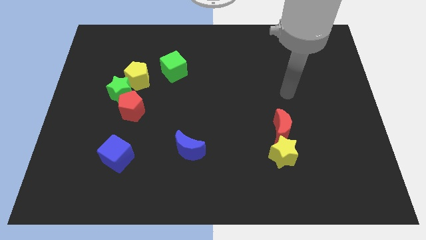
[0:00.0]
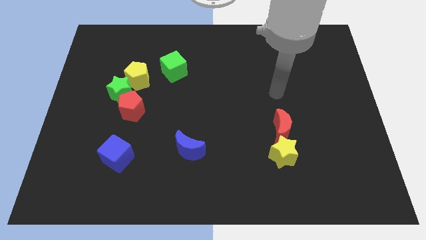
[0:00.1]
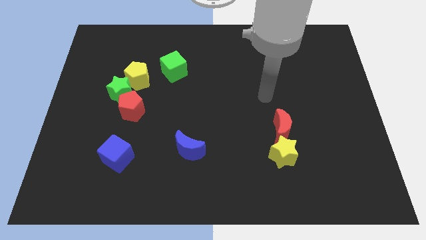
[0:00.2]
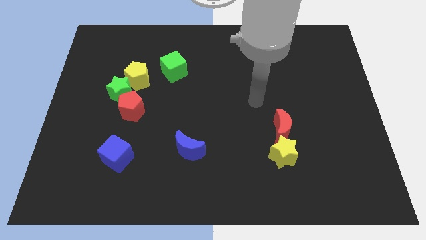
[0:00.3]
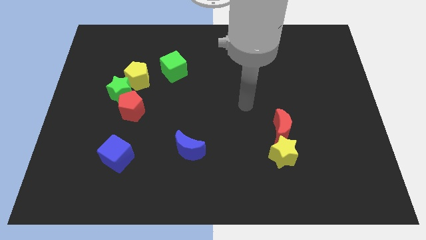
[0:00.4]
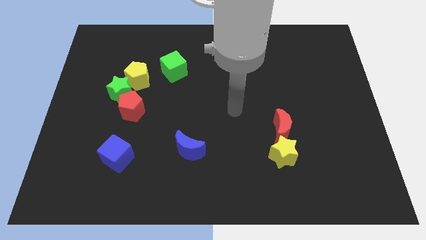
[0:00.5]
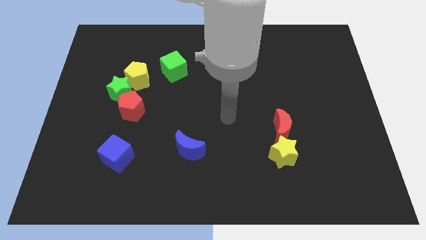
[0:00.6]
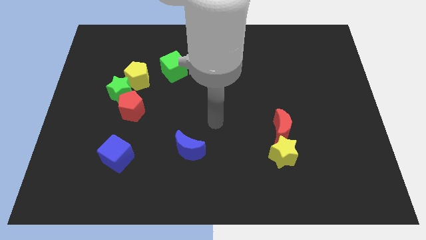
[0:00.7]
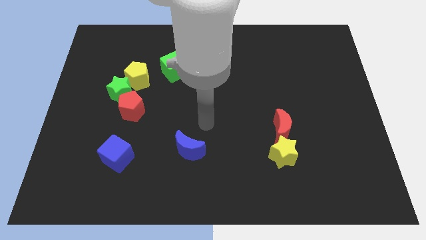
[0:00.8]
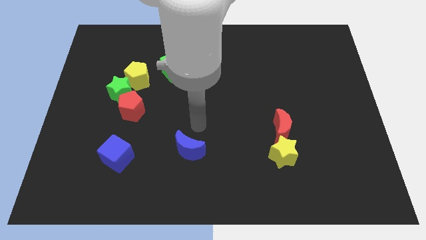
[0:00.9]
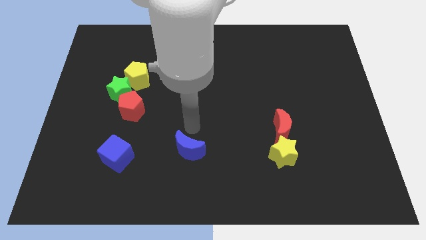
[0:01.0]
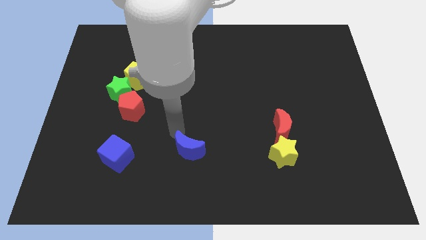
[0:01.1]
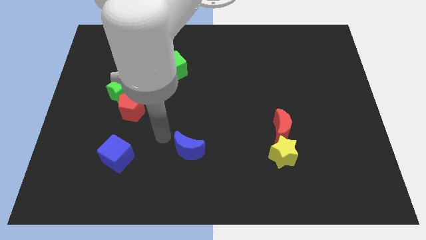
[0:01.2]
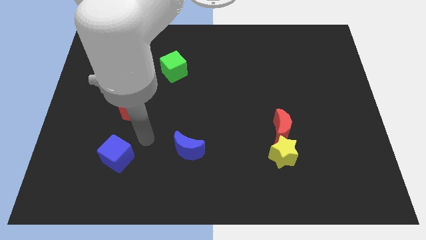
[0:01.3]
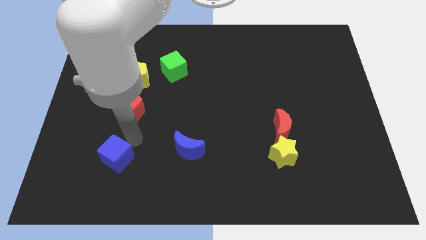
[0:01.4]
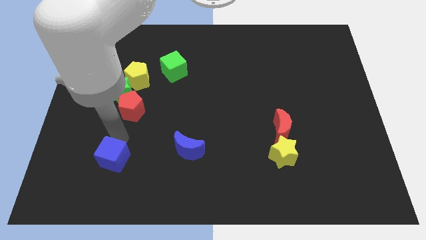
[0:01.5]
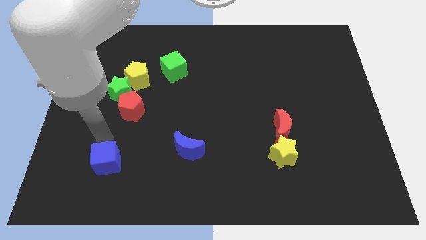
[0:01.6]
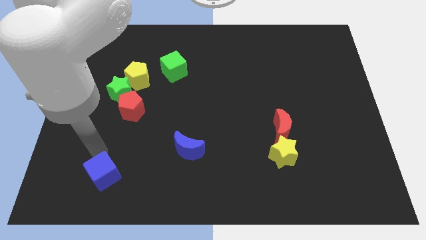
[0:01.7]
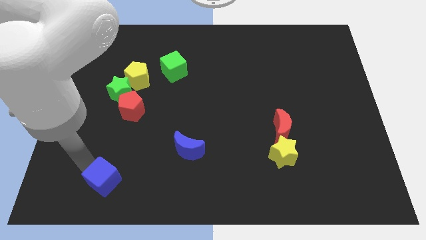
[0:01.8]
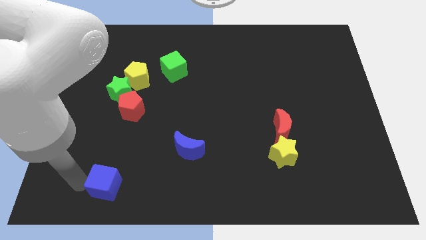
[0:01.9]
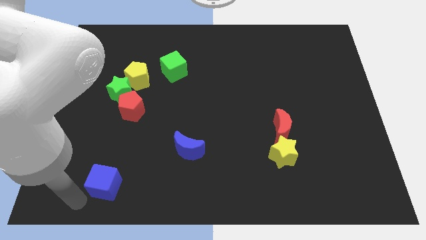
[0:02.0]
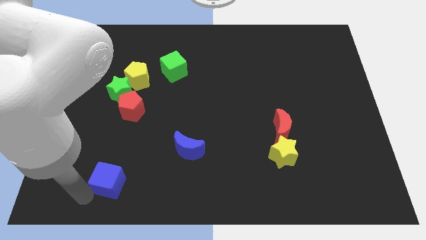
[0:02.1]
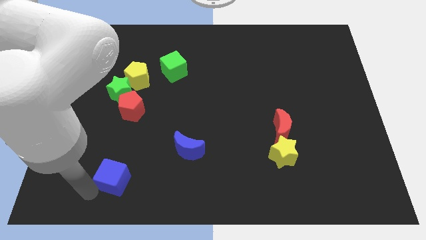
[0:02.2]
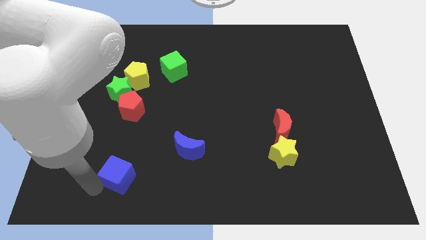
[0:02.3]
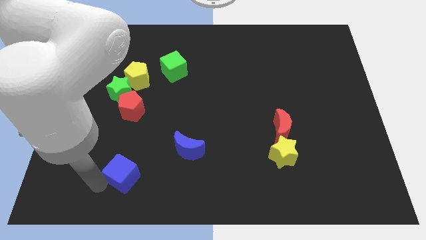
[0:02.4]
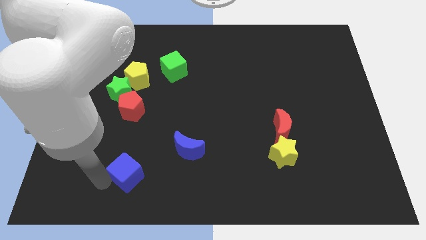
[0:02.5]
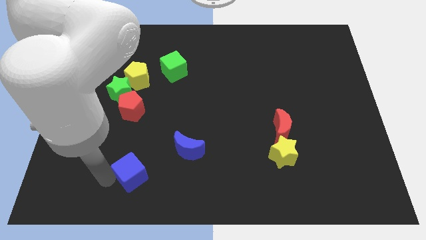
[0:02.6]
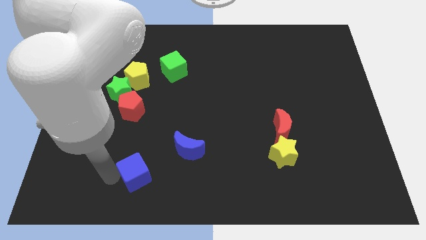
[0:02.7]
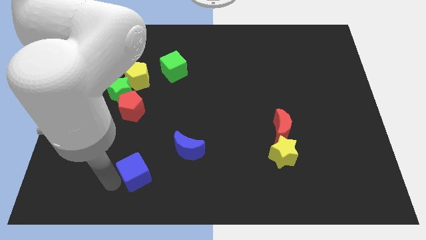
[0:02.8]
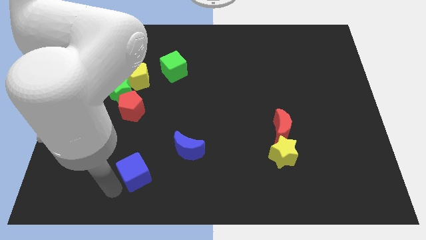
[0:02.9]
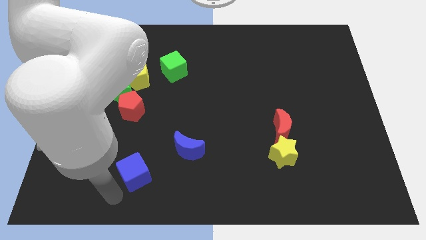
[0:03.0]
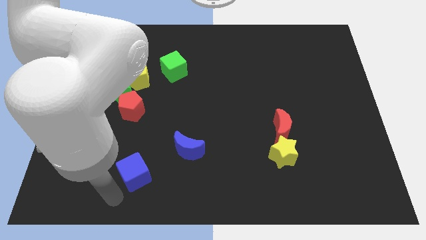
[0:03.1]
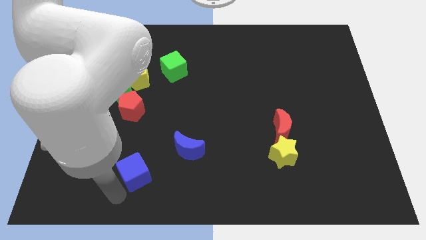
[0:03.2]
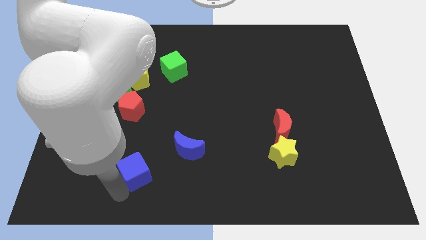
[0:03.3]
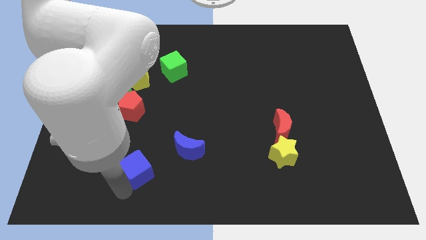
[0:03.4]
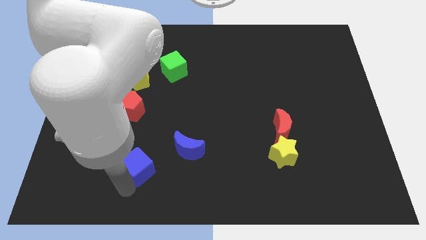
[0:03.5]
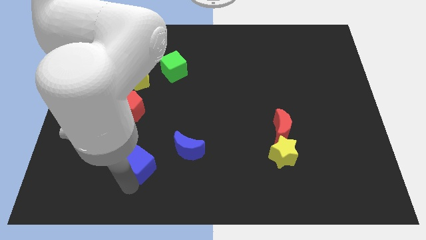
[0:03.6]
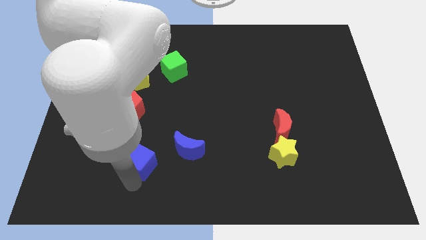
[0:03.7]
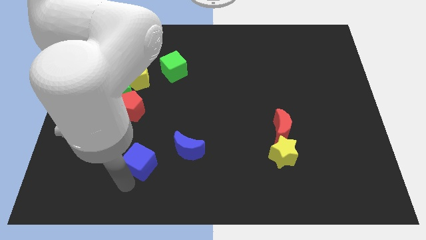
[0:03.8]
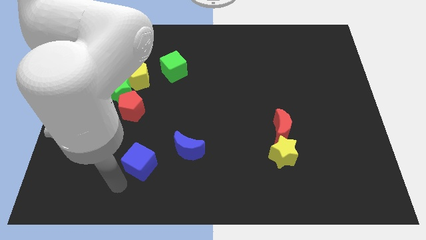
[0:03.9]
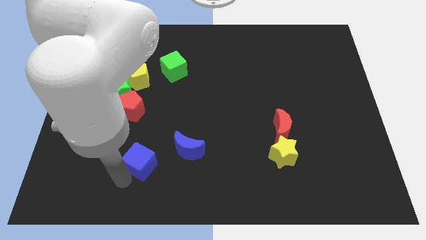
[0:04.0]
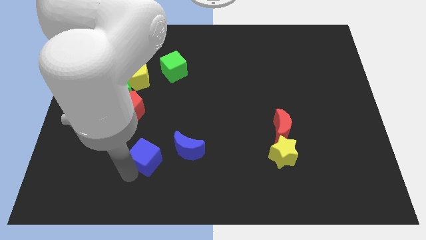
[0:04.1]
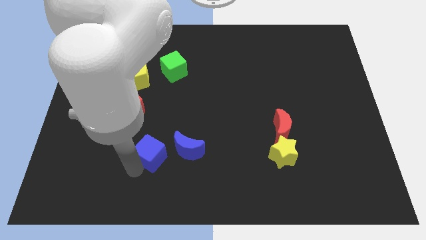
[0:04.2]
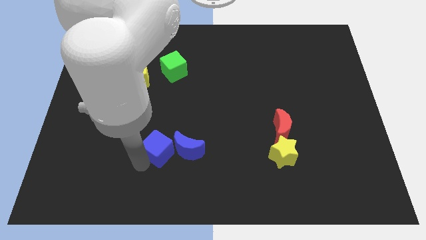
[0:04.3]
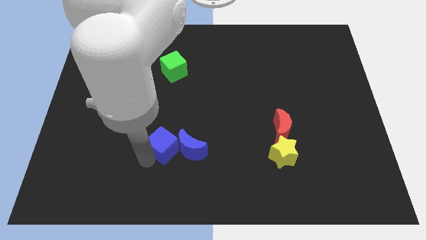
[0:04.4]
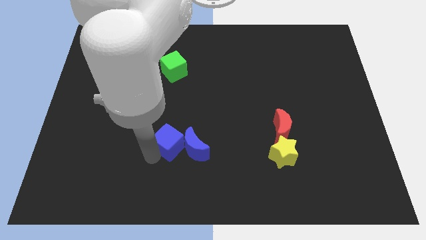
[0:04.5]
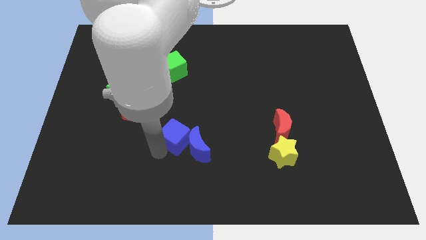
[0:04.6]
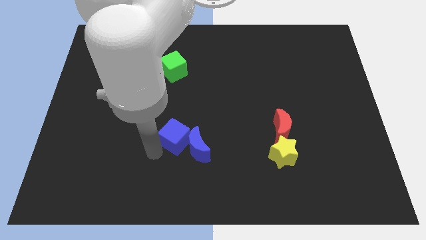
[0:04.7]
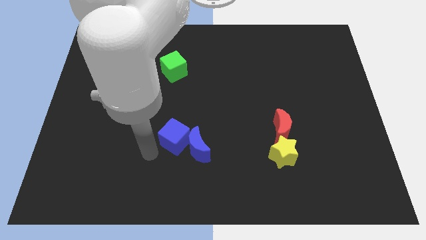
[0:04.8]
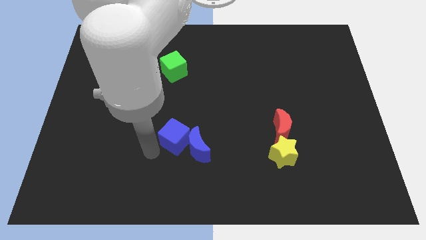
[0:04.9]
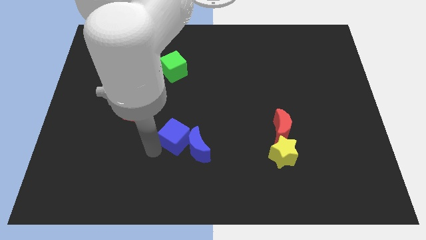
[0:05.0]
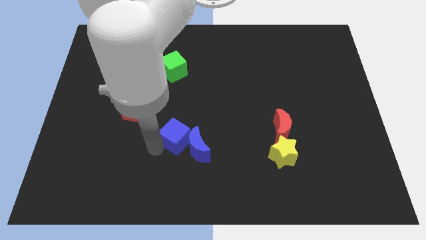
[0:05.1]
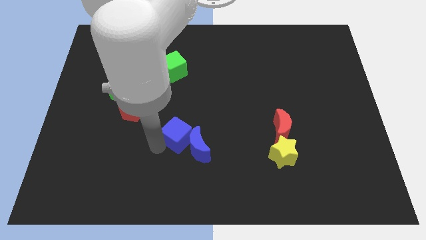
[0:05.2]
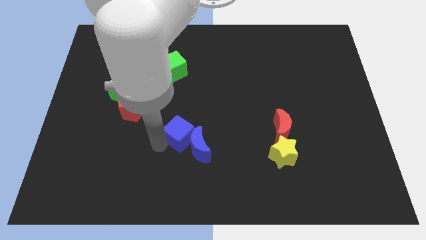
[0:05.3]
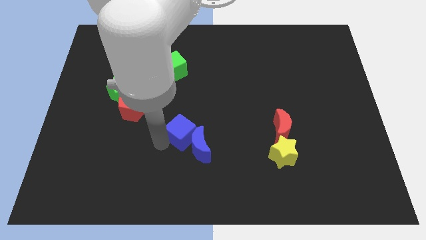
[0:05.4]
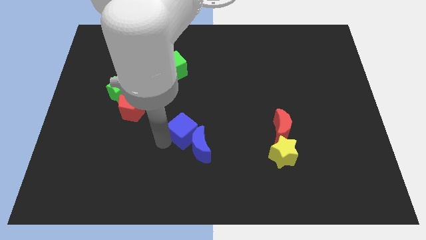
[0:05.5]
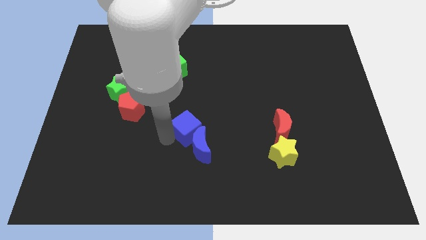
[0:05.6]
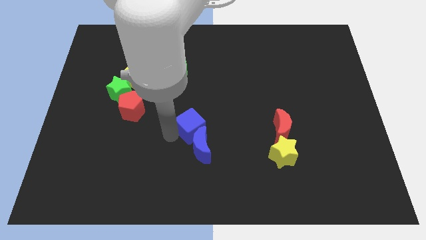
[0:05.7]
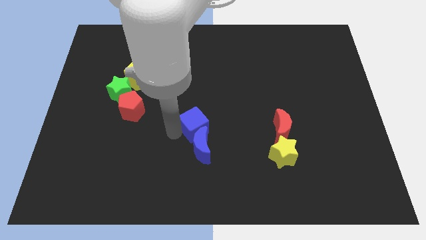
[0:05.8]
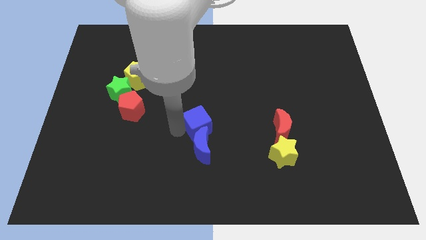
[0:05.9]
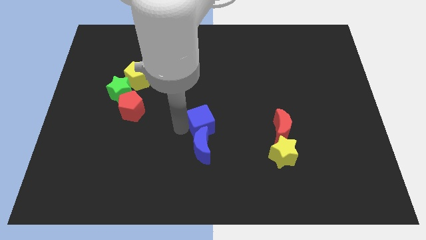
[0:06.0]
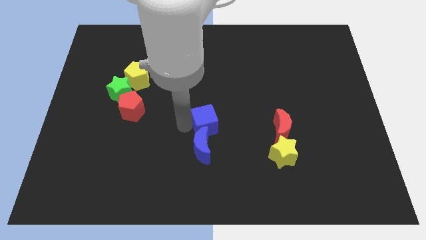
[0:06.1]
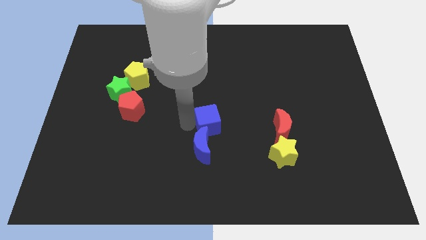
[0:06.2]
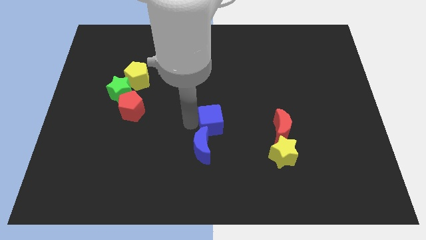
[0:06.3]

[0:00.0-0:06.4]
move the blue cube to the left side of the red moon
